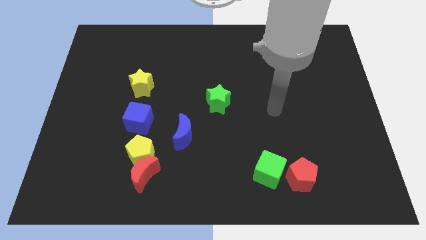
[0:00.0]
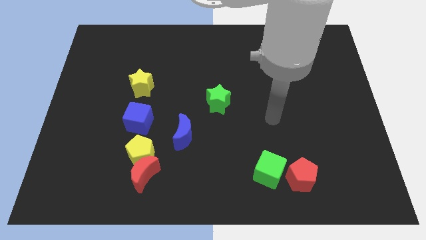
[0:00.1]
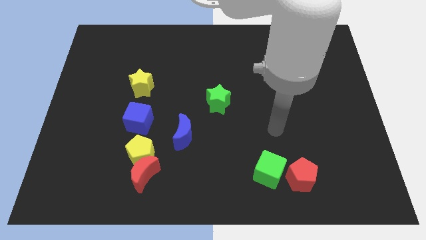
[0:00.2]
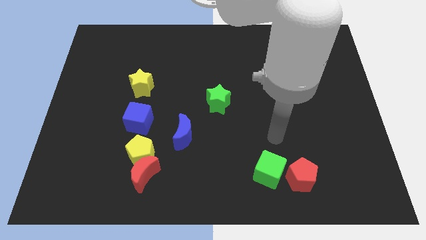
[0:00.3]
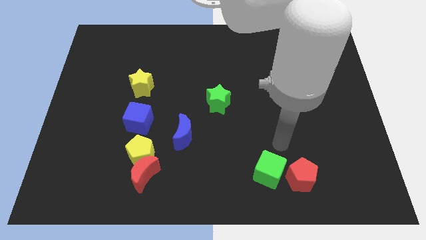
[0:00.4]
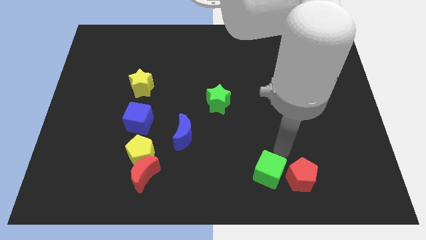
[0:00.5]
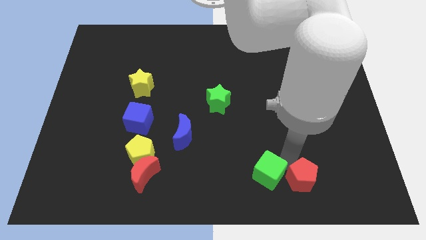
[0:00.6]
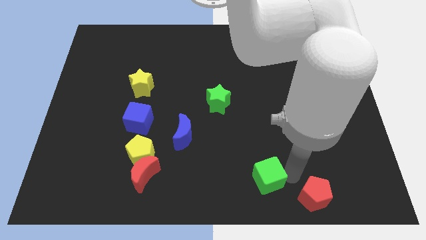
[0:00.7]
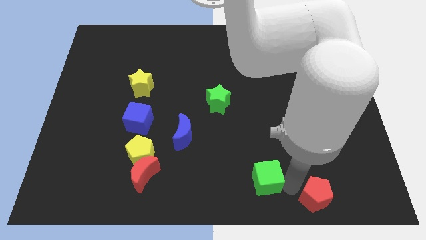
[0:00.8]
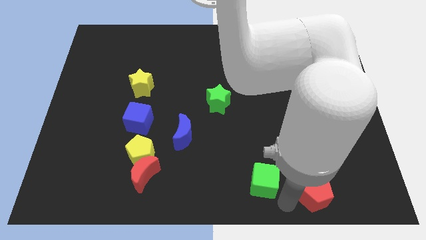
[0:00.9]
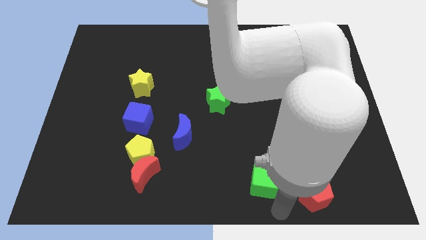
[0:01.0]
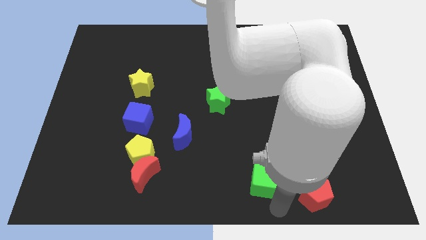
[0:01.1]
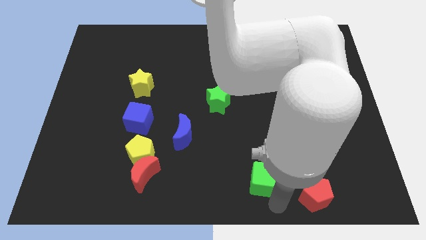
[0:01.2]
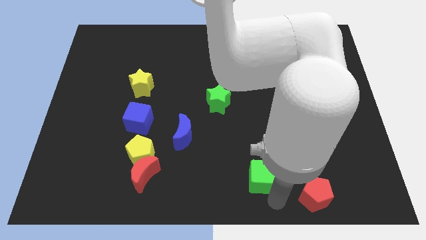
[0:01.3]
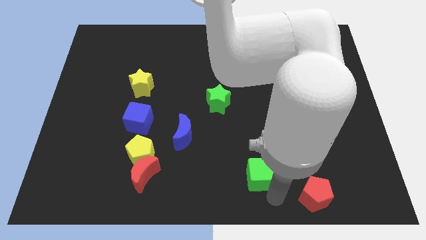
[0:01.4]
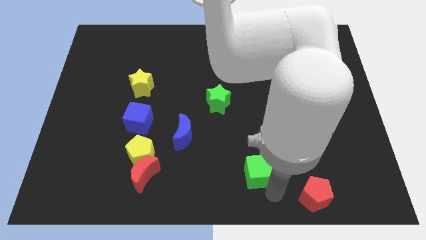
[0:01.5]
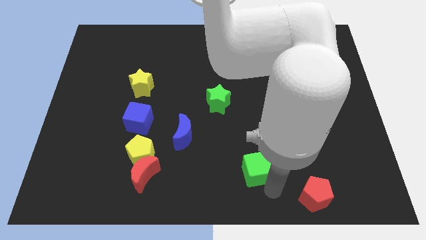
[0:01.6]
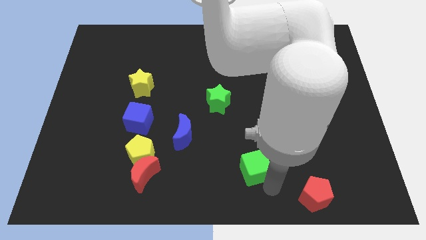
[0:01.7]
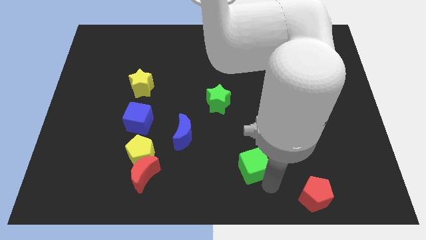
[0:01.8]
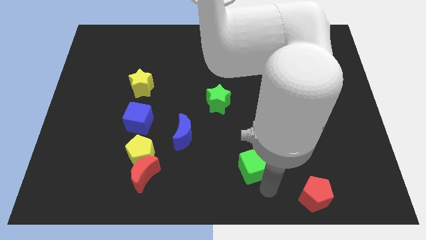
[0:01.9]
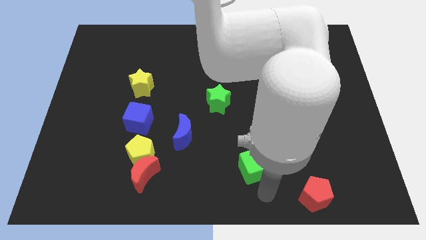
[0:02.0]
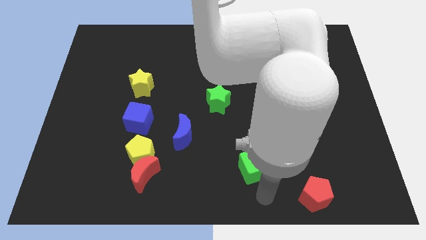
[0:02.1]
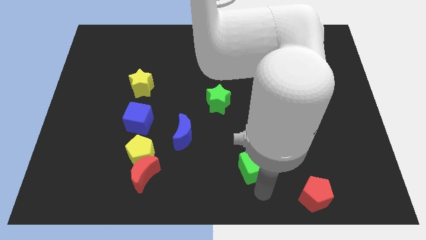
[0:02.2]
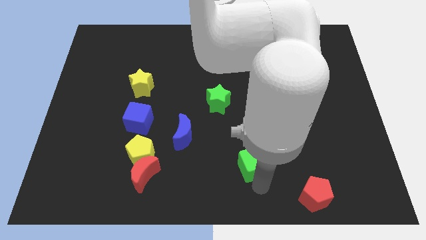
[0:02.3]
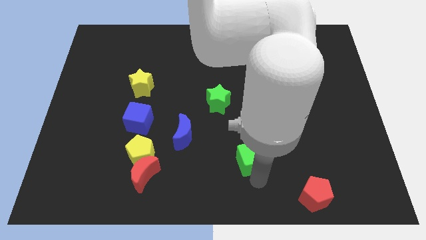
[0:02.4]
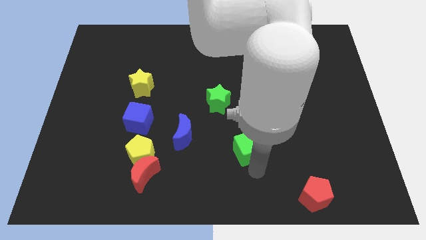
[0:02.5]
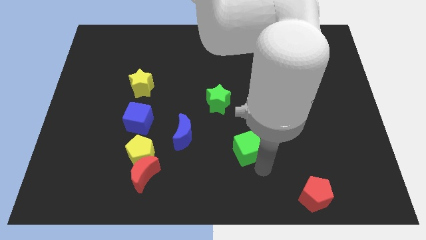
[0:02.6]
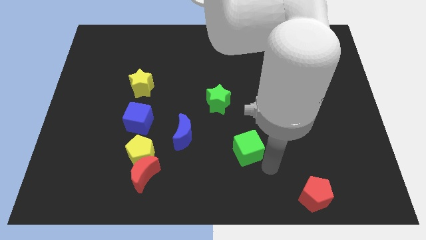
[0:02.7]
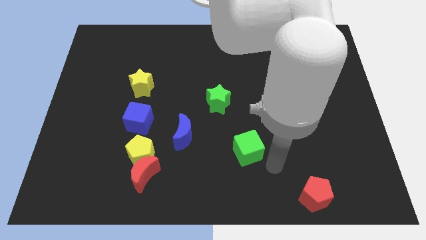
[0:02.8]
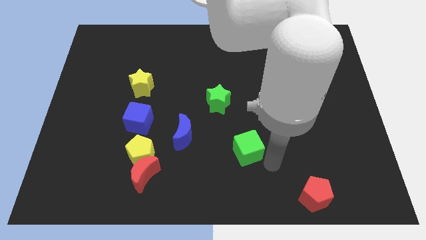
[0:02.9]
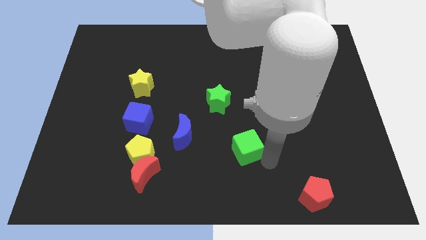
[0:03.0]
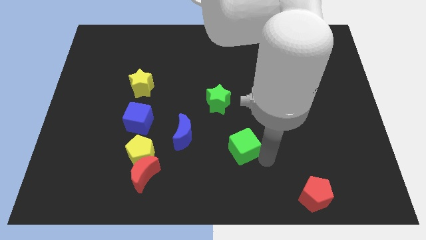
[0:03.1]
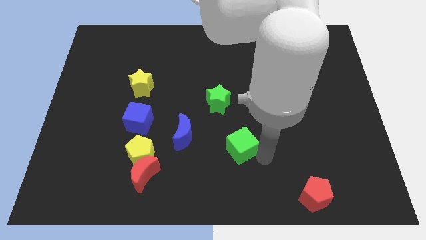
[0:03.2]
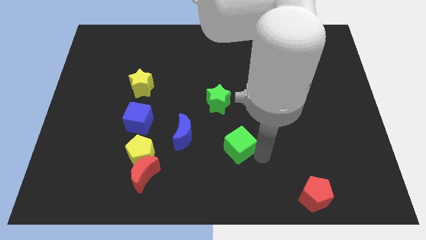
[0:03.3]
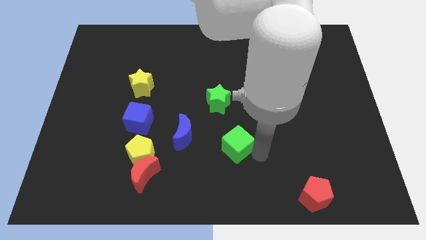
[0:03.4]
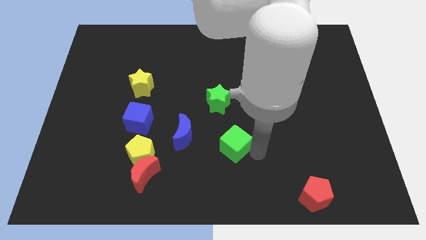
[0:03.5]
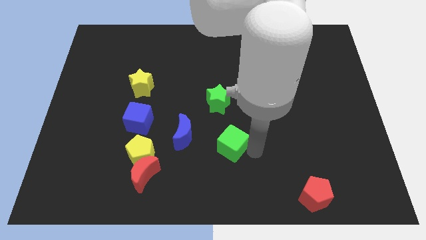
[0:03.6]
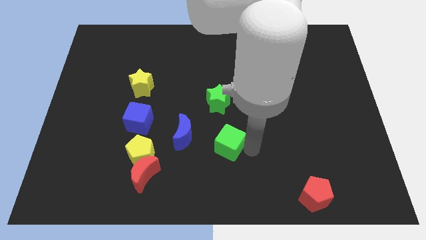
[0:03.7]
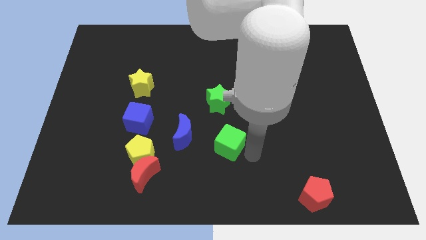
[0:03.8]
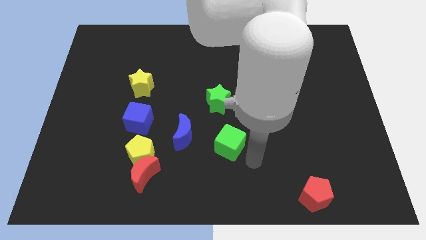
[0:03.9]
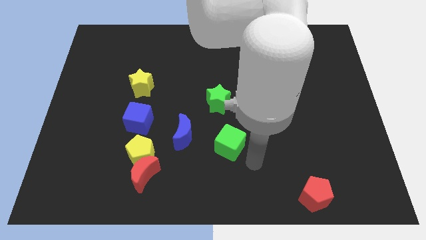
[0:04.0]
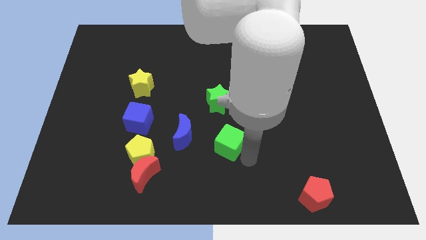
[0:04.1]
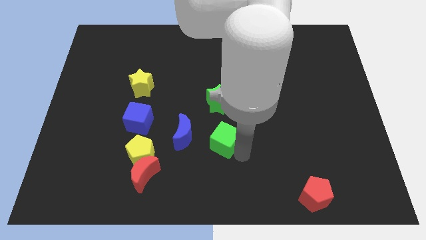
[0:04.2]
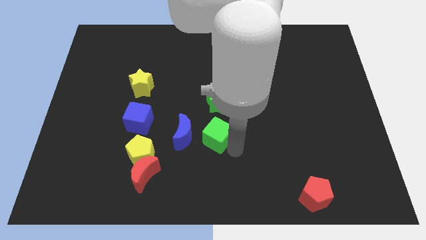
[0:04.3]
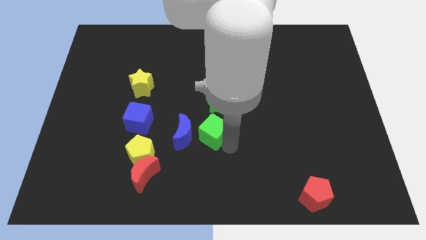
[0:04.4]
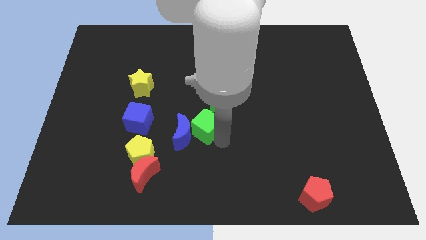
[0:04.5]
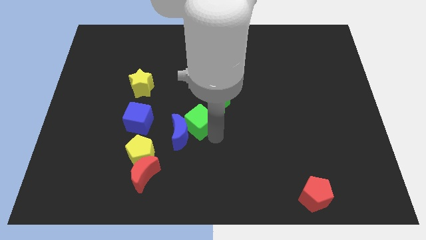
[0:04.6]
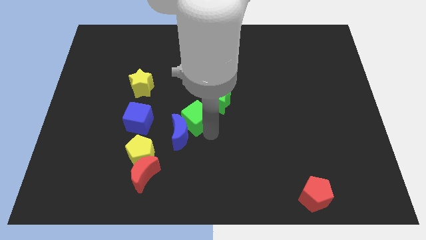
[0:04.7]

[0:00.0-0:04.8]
slide the green cube upwards and then left

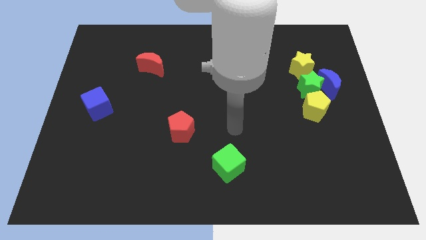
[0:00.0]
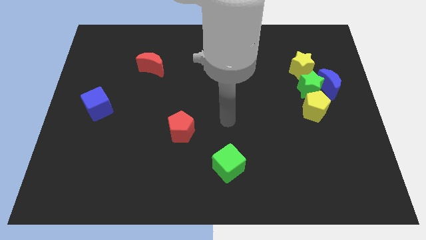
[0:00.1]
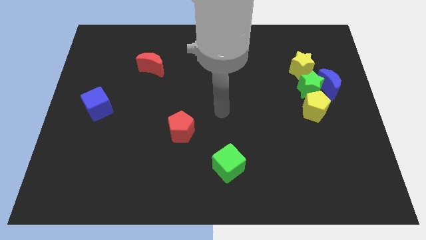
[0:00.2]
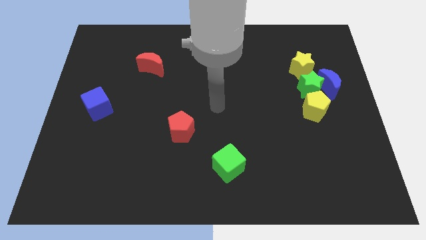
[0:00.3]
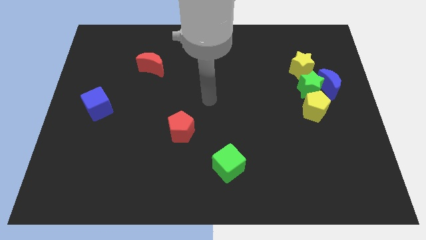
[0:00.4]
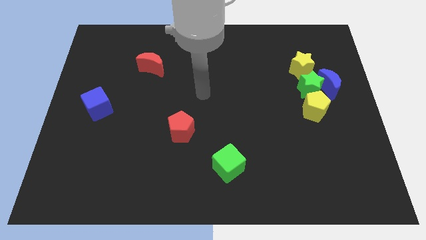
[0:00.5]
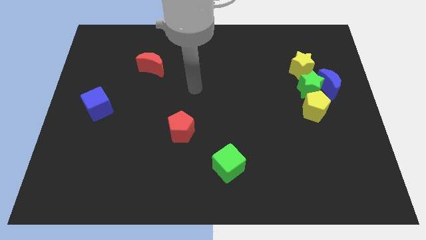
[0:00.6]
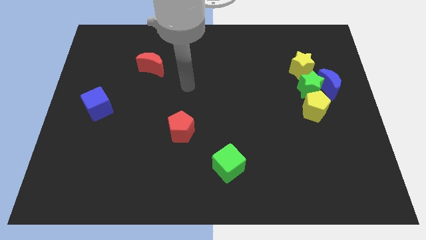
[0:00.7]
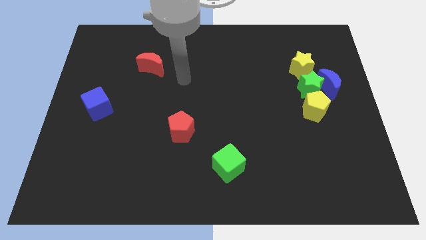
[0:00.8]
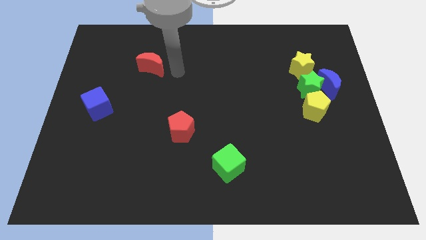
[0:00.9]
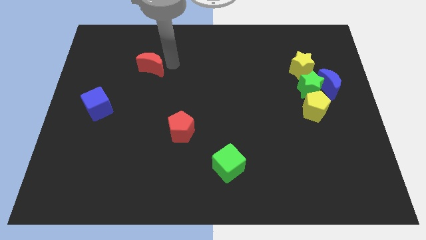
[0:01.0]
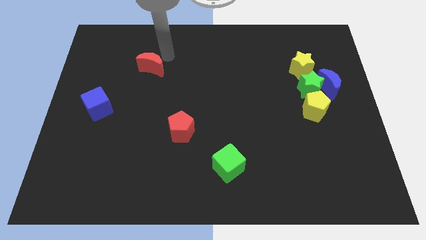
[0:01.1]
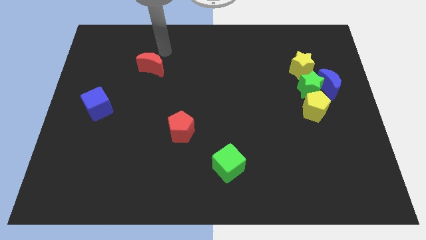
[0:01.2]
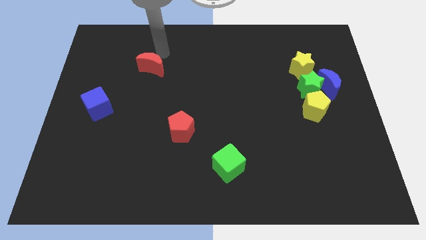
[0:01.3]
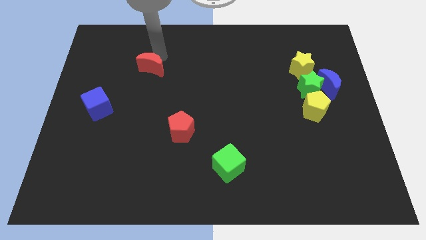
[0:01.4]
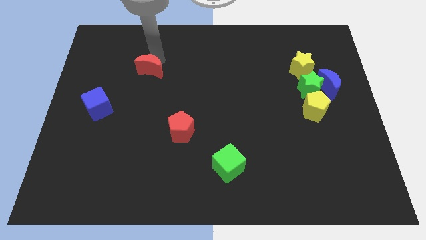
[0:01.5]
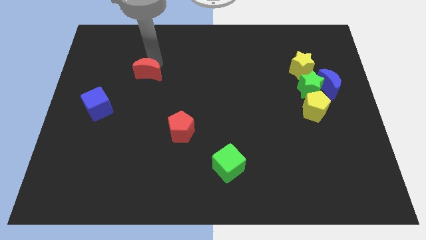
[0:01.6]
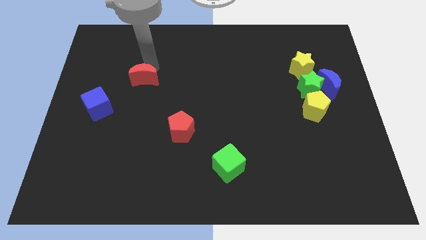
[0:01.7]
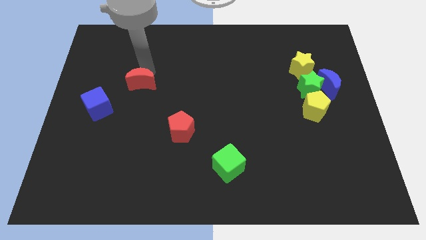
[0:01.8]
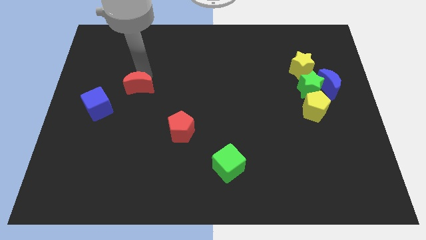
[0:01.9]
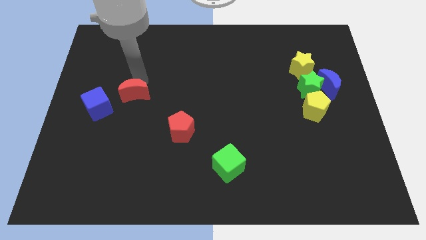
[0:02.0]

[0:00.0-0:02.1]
push the red moon somewhat down

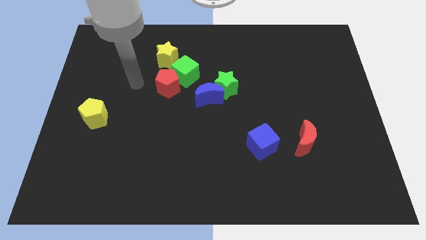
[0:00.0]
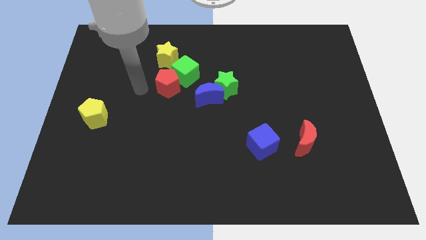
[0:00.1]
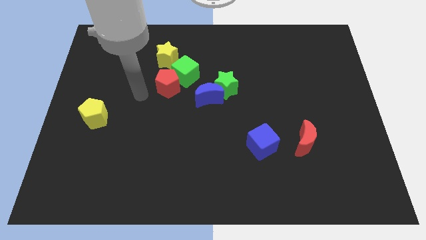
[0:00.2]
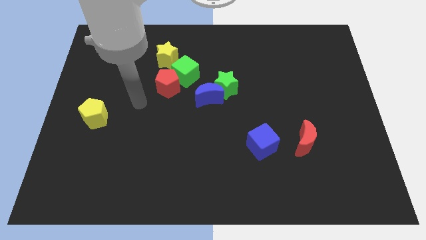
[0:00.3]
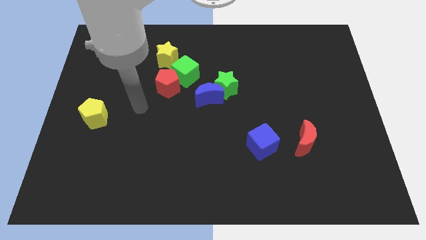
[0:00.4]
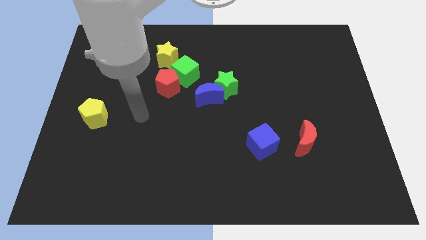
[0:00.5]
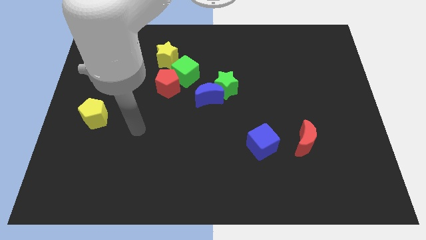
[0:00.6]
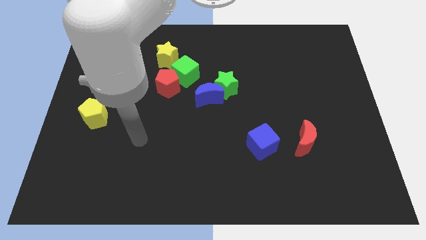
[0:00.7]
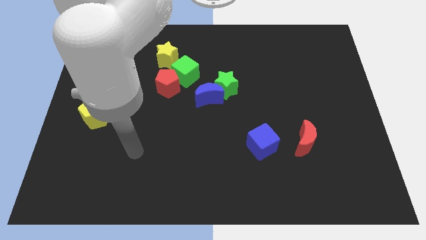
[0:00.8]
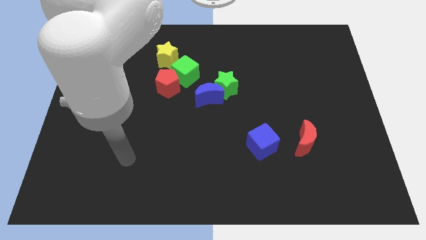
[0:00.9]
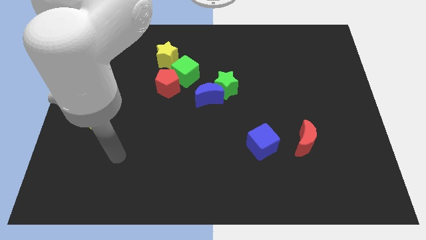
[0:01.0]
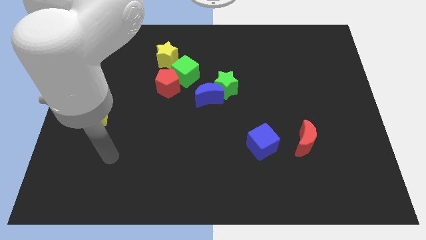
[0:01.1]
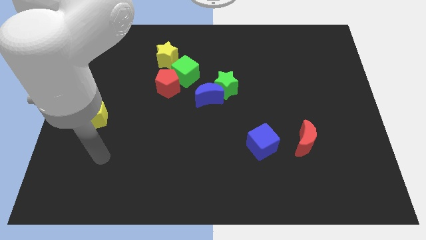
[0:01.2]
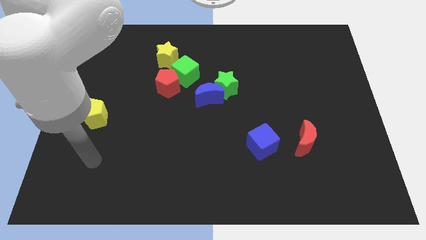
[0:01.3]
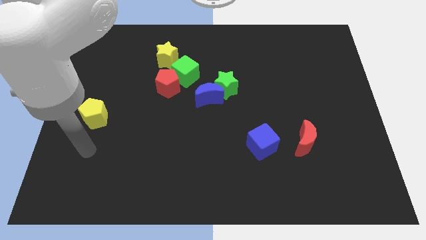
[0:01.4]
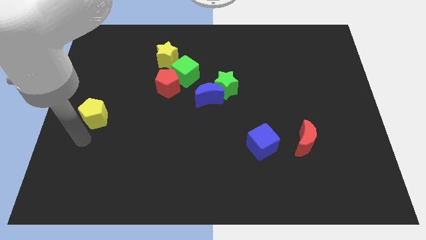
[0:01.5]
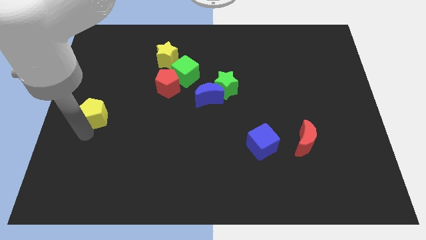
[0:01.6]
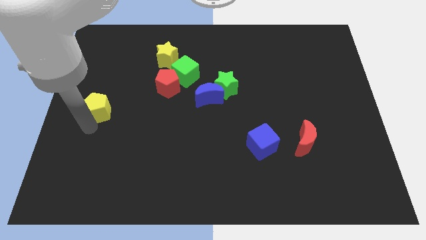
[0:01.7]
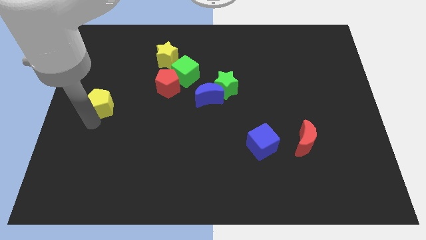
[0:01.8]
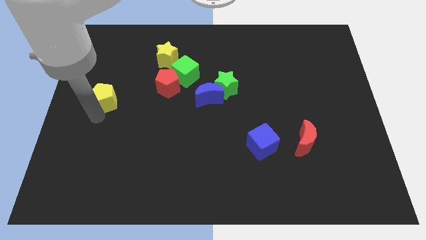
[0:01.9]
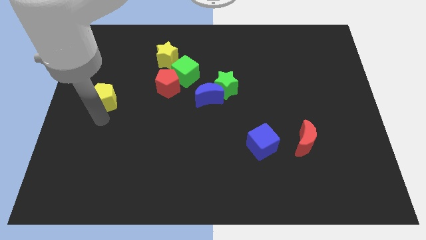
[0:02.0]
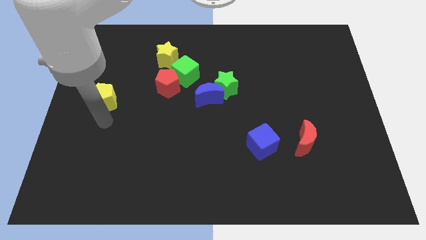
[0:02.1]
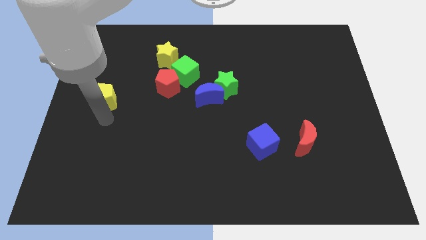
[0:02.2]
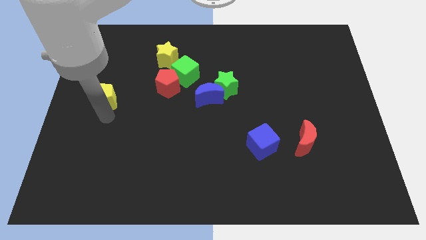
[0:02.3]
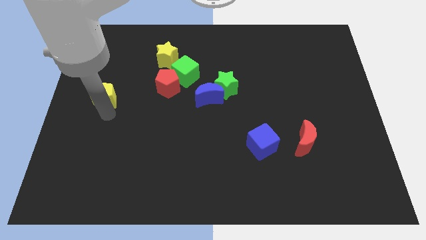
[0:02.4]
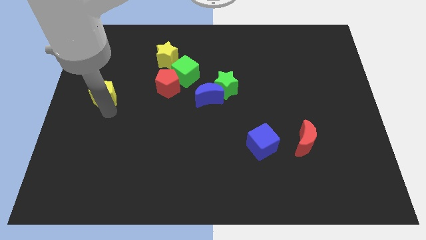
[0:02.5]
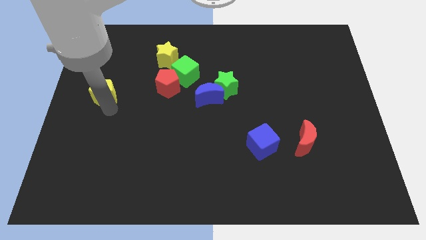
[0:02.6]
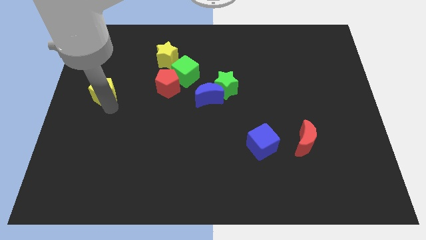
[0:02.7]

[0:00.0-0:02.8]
move the yellow pentagon a little bit upwards
